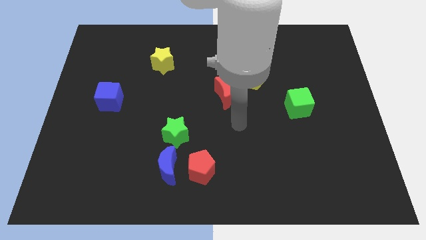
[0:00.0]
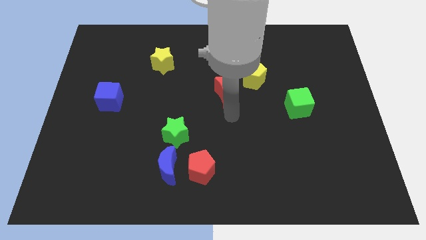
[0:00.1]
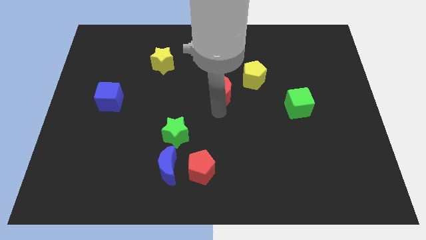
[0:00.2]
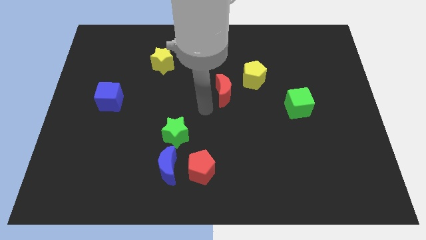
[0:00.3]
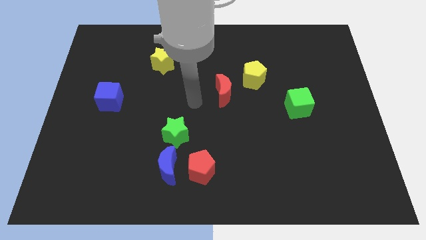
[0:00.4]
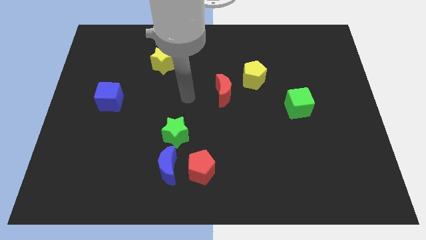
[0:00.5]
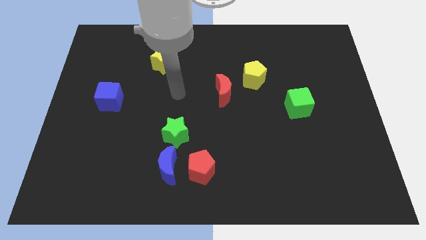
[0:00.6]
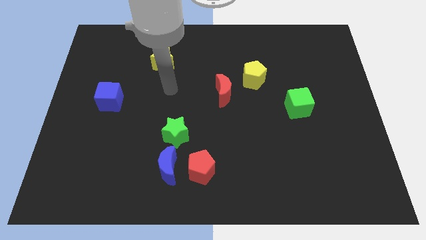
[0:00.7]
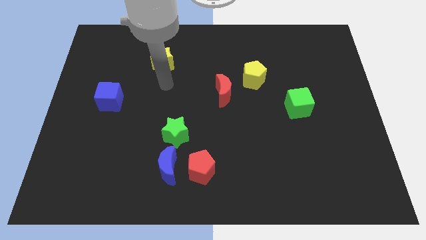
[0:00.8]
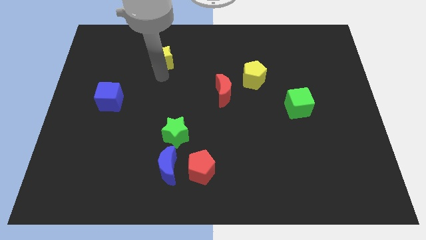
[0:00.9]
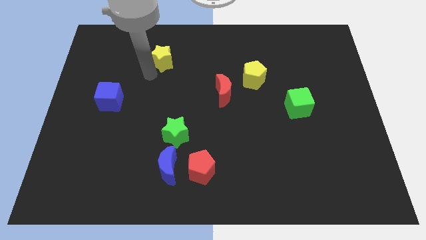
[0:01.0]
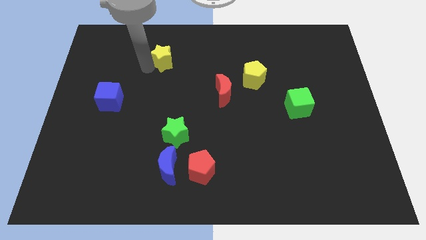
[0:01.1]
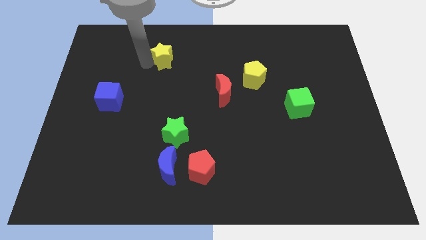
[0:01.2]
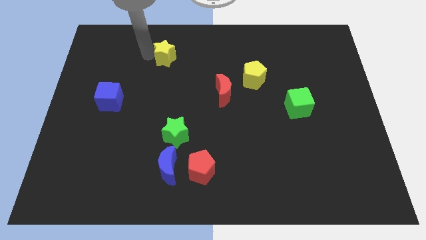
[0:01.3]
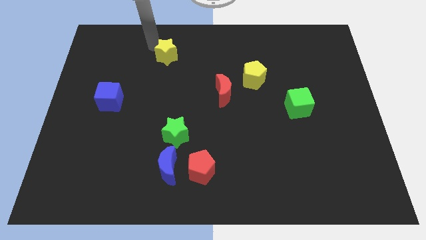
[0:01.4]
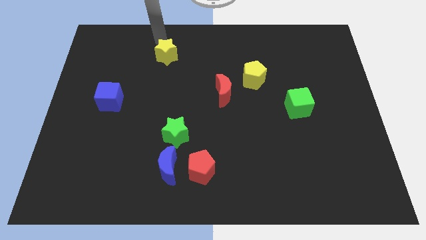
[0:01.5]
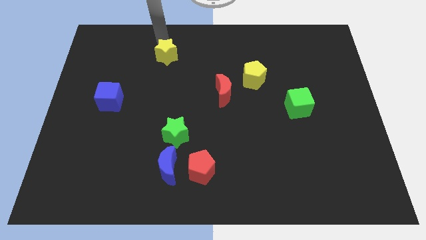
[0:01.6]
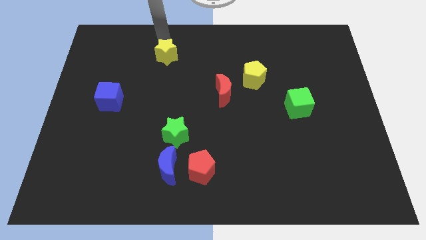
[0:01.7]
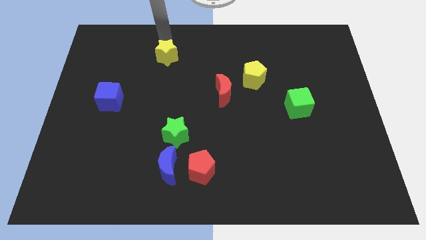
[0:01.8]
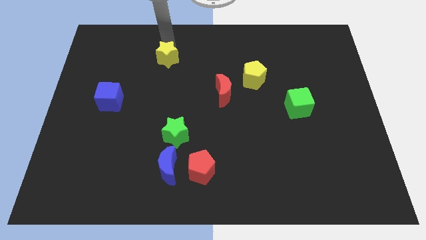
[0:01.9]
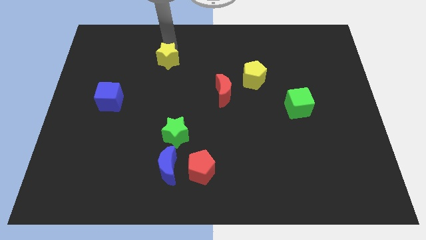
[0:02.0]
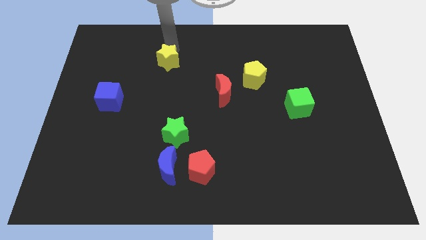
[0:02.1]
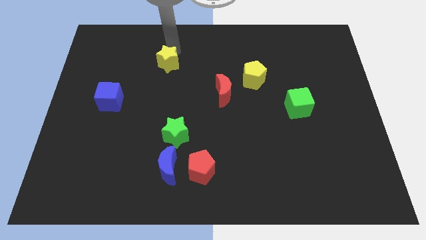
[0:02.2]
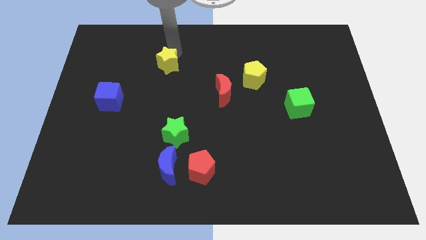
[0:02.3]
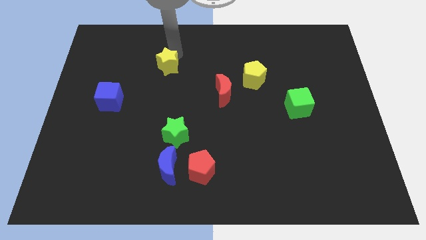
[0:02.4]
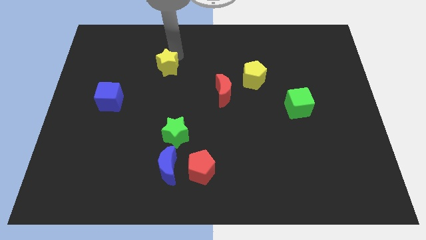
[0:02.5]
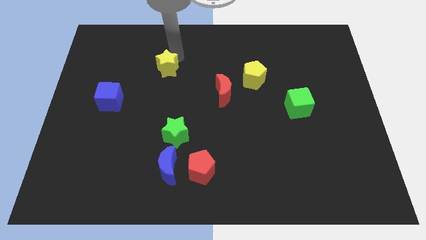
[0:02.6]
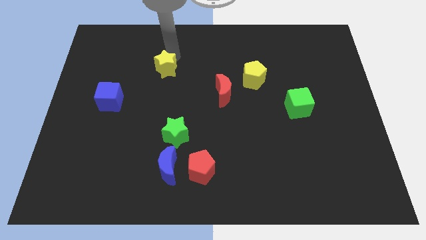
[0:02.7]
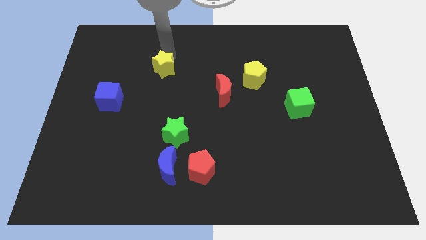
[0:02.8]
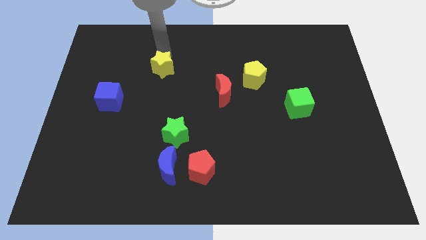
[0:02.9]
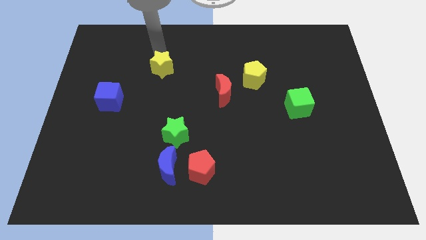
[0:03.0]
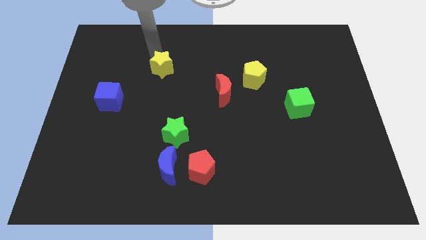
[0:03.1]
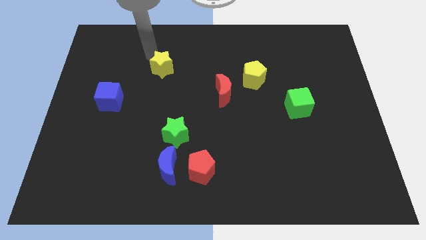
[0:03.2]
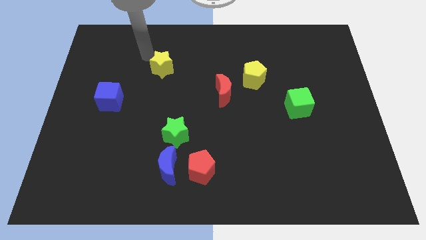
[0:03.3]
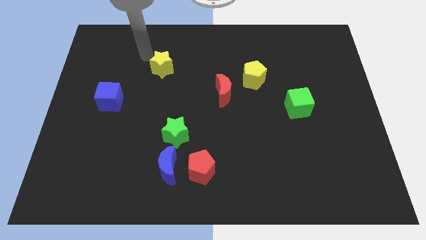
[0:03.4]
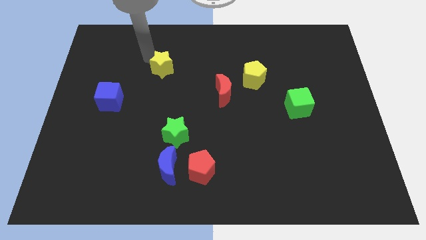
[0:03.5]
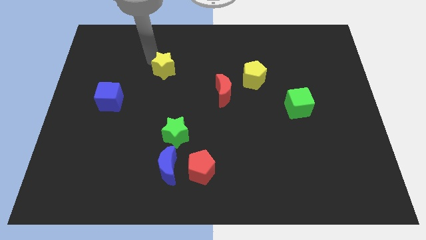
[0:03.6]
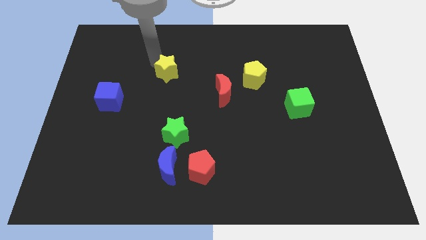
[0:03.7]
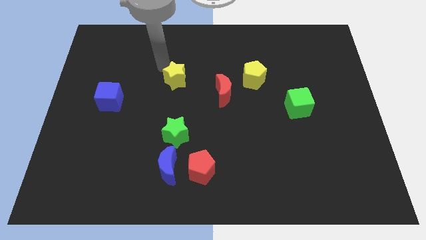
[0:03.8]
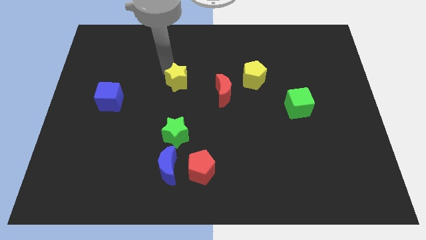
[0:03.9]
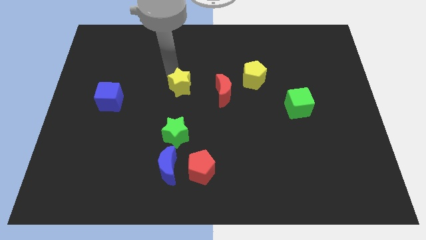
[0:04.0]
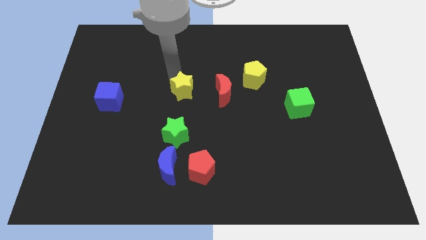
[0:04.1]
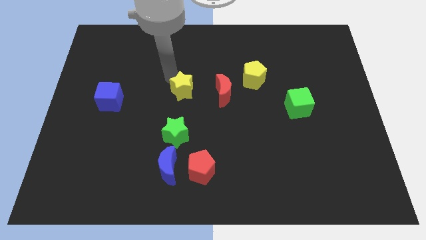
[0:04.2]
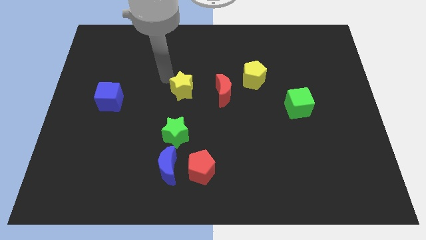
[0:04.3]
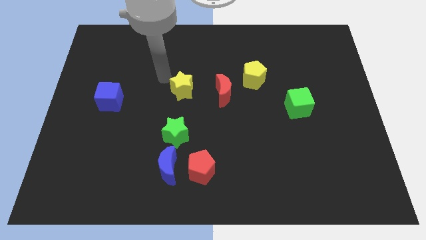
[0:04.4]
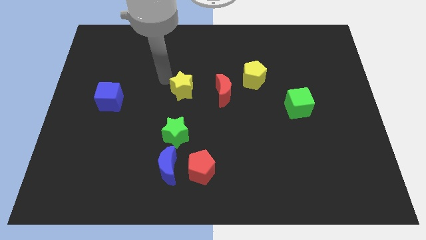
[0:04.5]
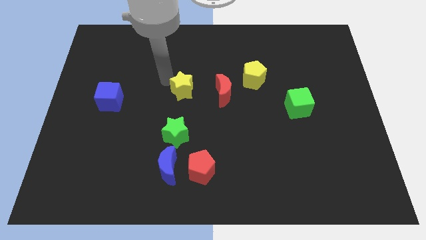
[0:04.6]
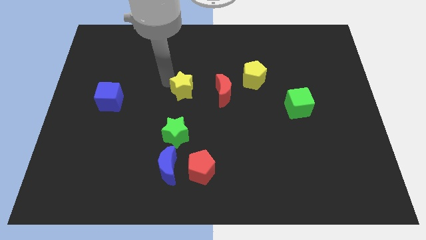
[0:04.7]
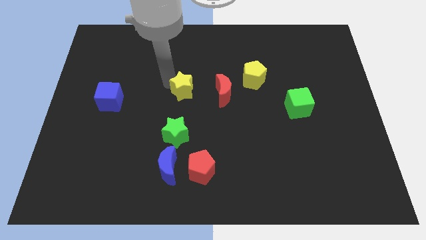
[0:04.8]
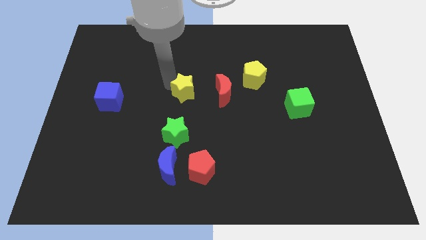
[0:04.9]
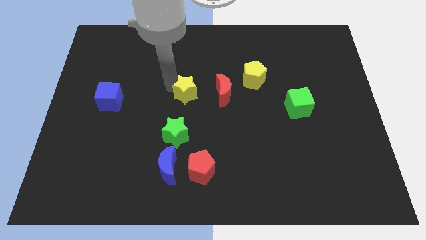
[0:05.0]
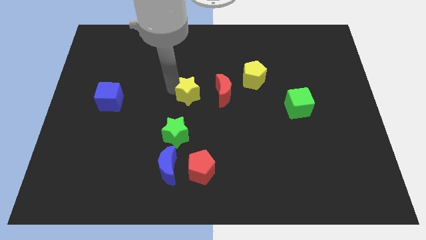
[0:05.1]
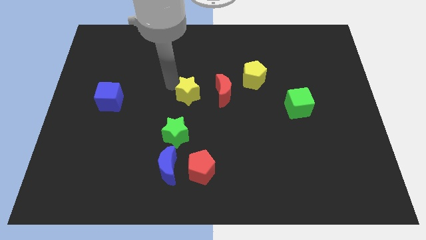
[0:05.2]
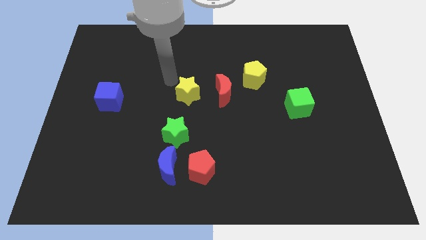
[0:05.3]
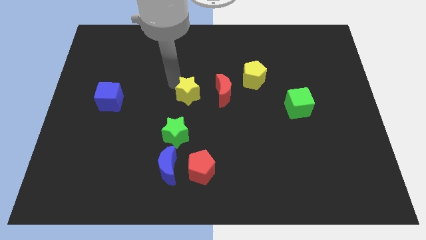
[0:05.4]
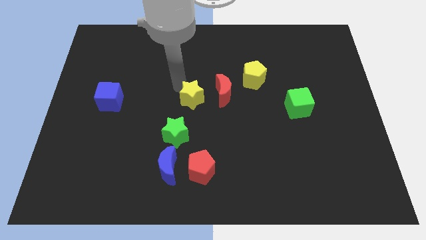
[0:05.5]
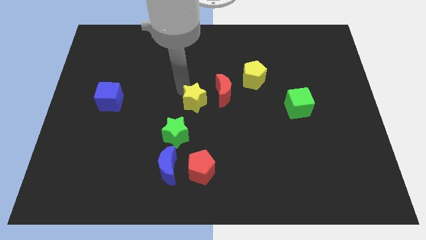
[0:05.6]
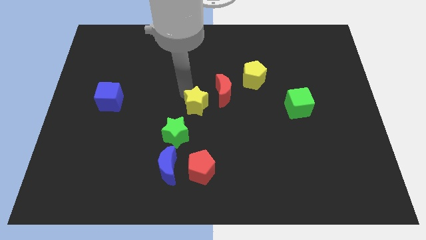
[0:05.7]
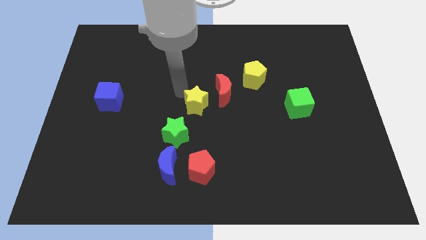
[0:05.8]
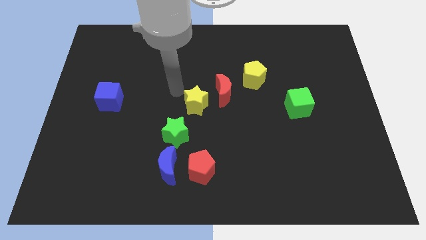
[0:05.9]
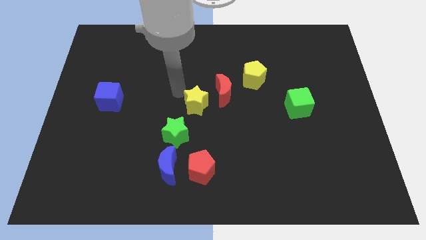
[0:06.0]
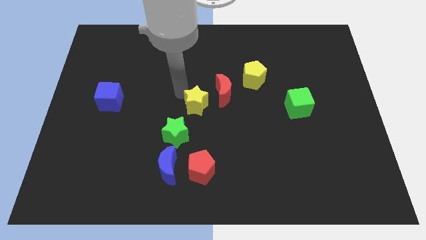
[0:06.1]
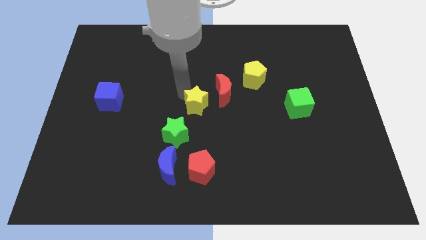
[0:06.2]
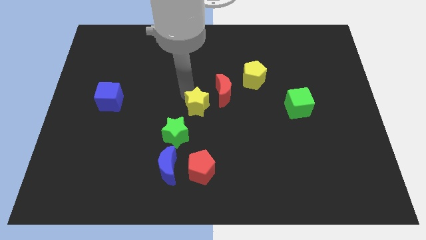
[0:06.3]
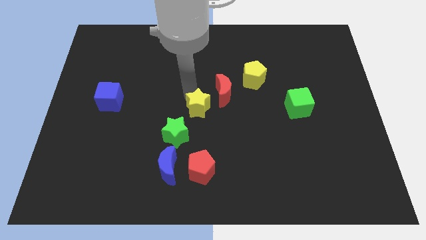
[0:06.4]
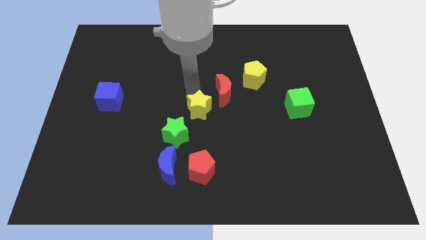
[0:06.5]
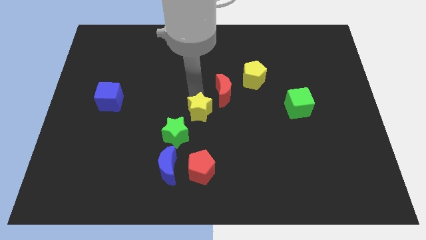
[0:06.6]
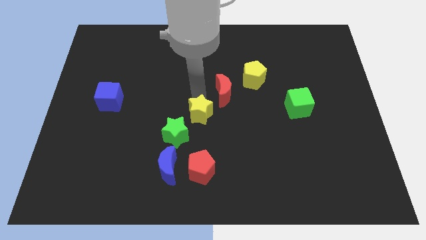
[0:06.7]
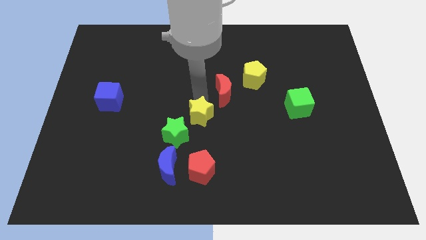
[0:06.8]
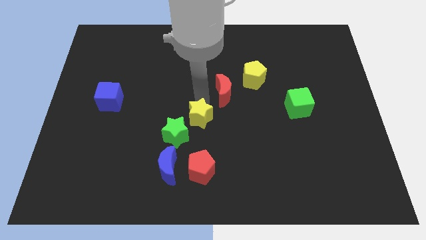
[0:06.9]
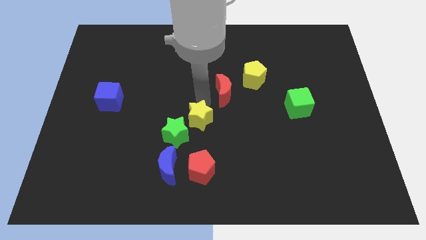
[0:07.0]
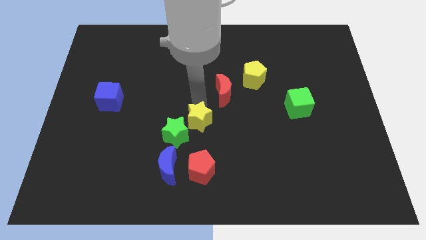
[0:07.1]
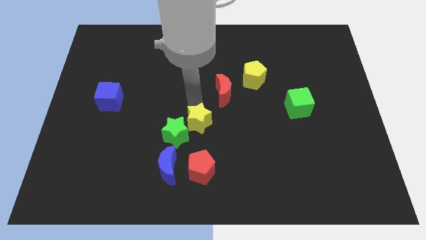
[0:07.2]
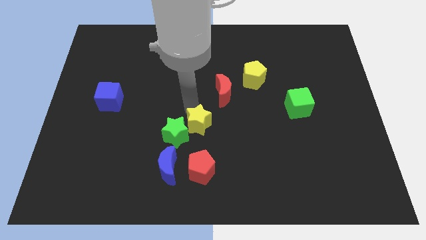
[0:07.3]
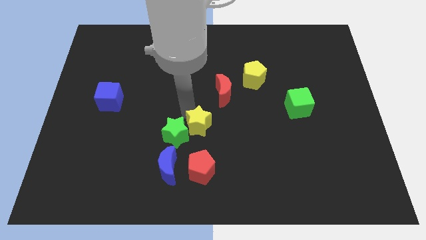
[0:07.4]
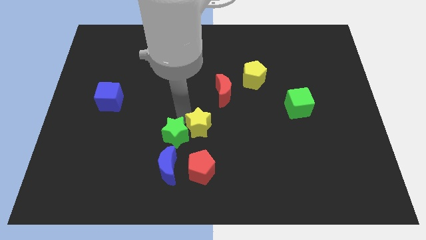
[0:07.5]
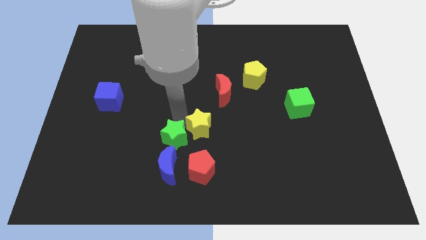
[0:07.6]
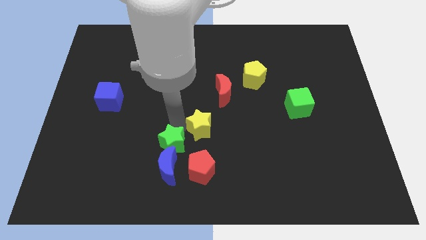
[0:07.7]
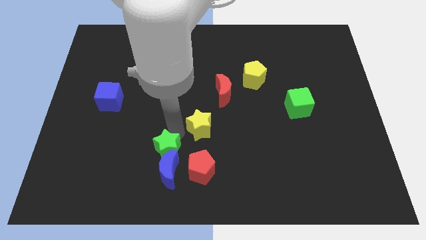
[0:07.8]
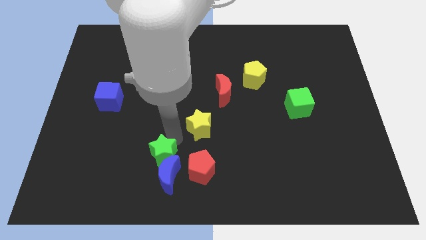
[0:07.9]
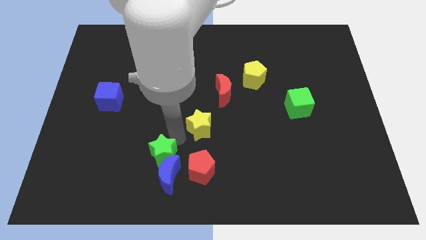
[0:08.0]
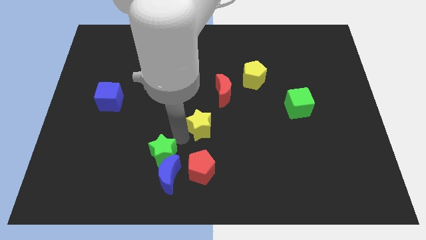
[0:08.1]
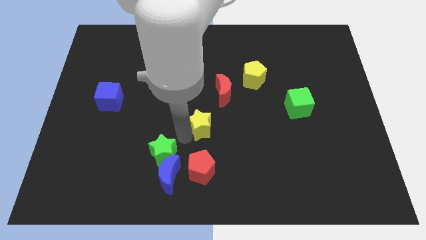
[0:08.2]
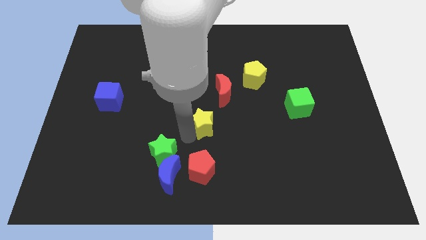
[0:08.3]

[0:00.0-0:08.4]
slide the yellow star downwards and right

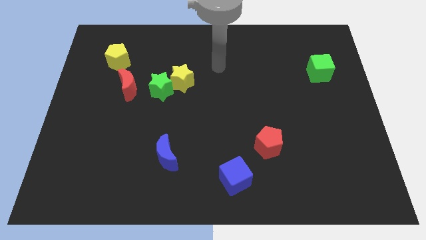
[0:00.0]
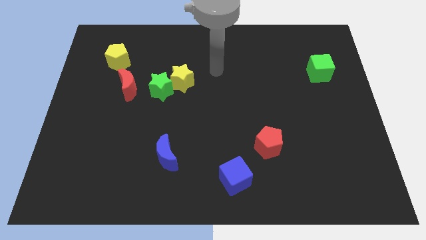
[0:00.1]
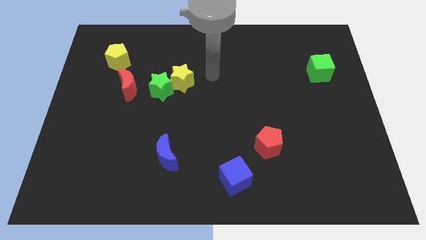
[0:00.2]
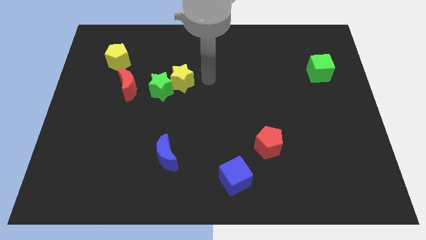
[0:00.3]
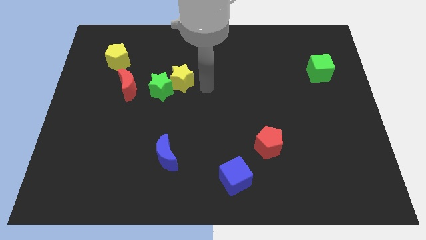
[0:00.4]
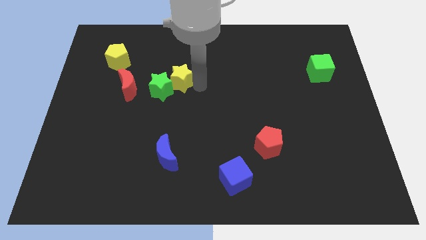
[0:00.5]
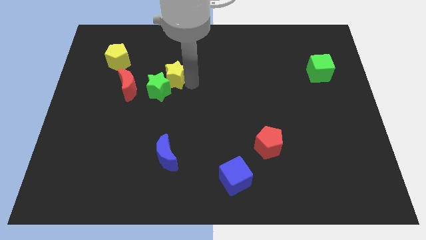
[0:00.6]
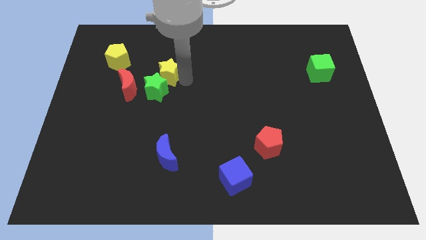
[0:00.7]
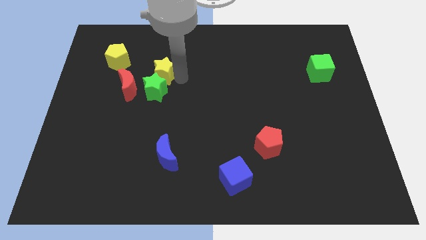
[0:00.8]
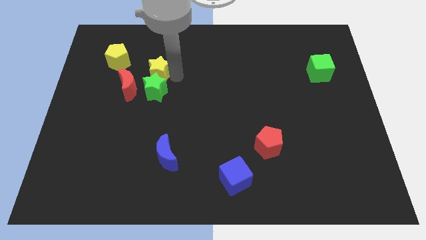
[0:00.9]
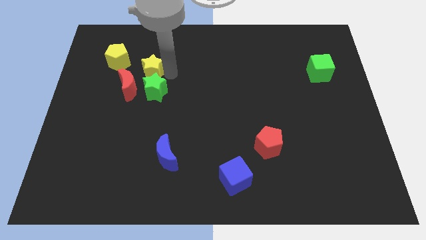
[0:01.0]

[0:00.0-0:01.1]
slightly push the yellow star left
